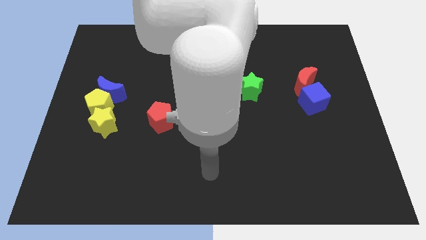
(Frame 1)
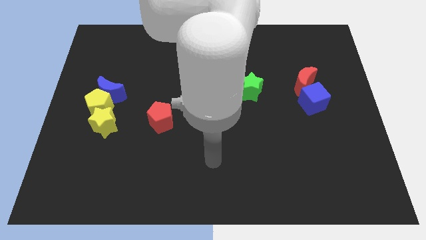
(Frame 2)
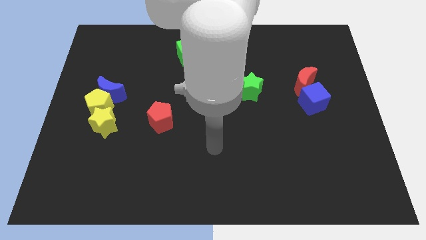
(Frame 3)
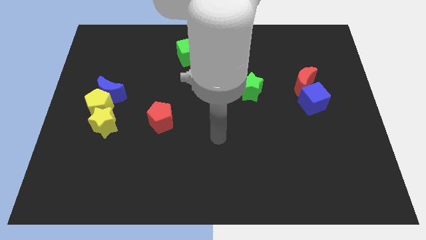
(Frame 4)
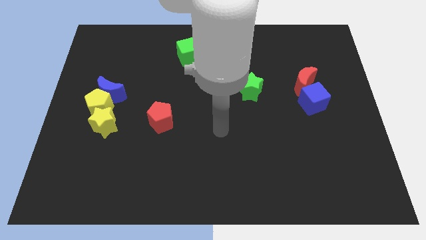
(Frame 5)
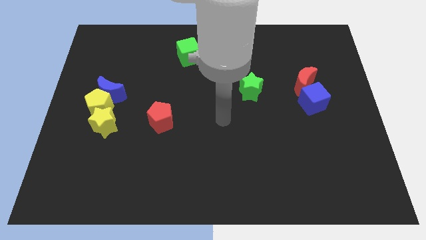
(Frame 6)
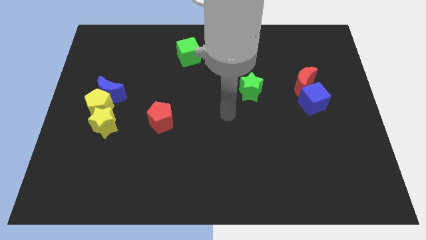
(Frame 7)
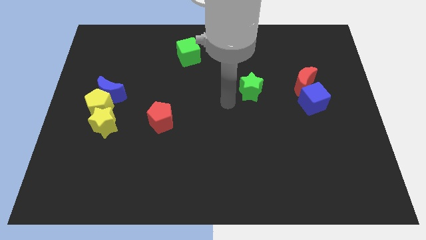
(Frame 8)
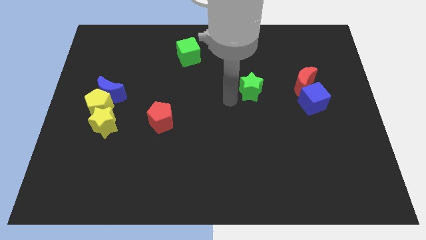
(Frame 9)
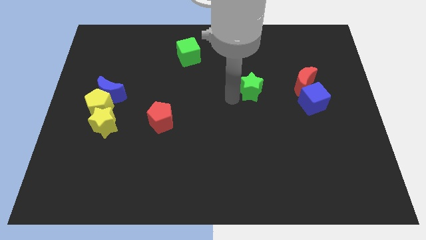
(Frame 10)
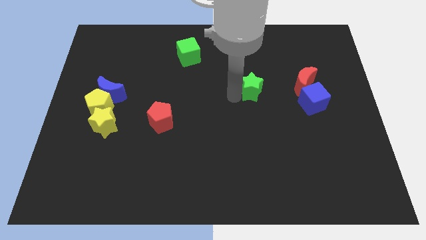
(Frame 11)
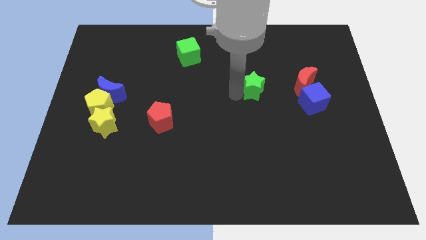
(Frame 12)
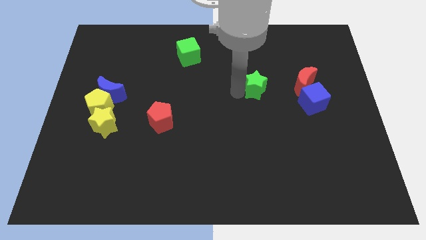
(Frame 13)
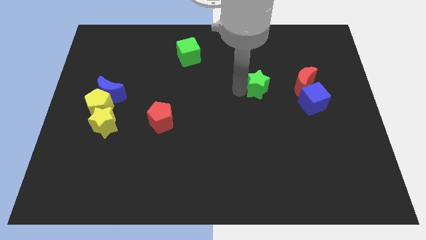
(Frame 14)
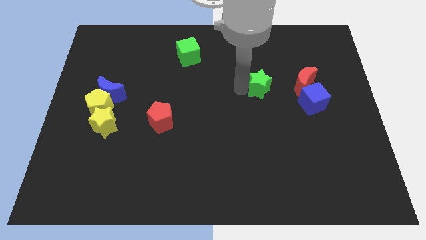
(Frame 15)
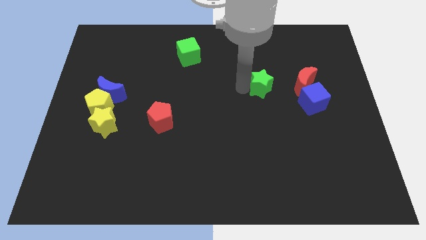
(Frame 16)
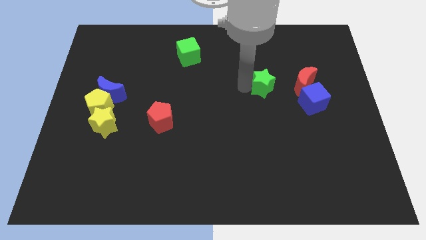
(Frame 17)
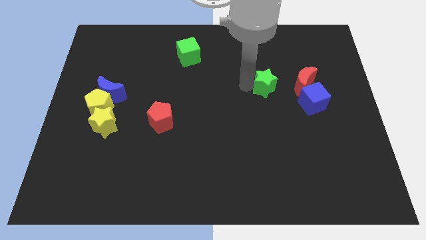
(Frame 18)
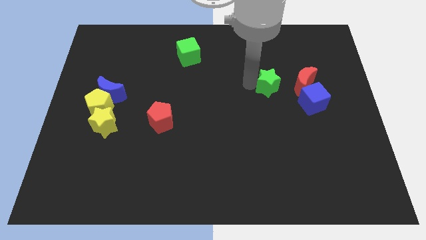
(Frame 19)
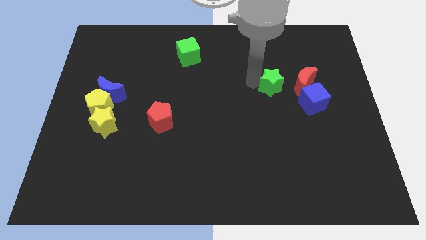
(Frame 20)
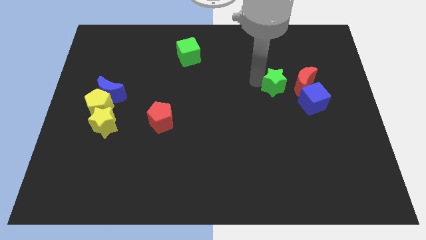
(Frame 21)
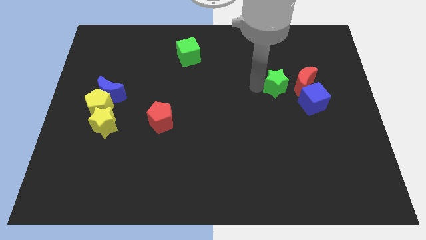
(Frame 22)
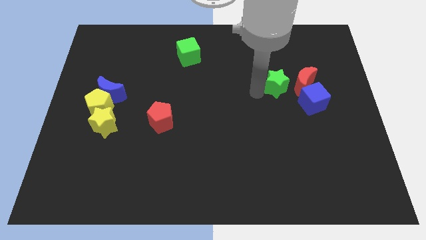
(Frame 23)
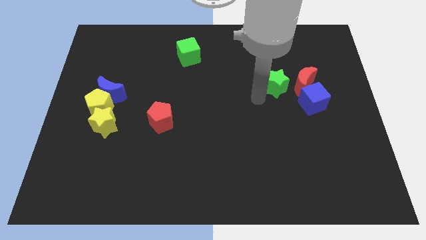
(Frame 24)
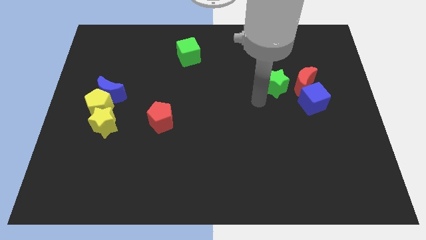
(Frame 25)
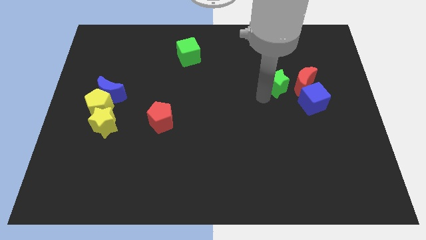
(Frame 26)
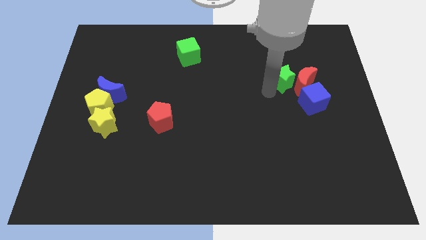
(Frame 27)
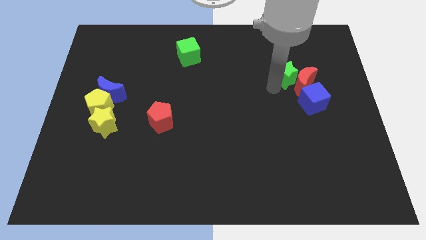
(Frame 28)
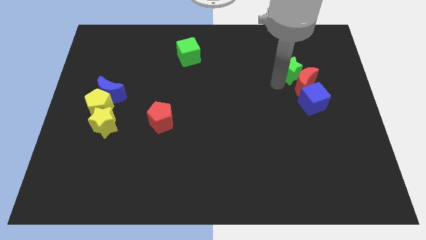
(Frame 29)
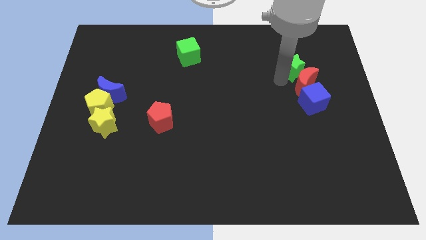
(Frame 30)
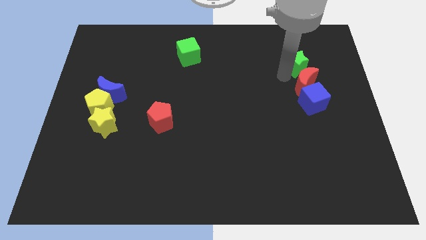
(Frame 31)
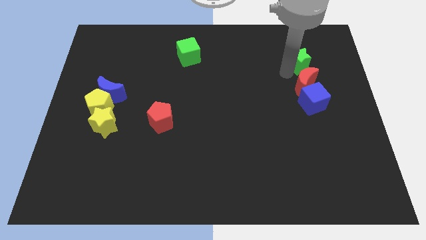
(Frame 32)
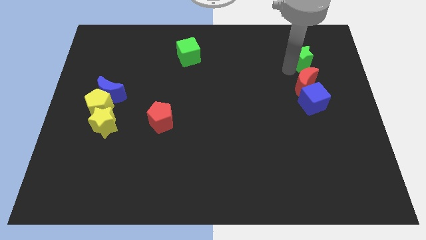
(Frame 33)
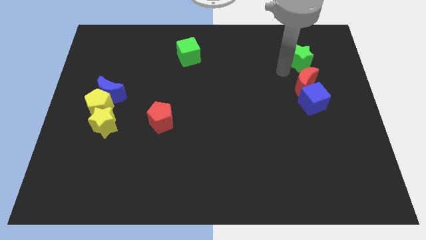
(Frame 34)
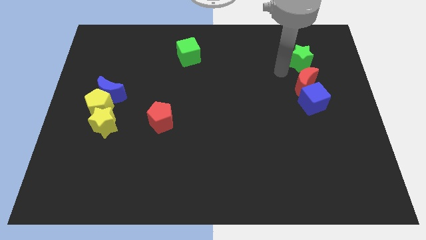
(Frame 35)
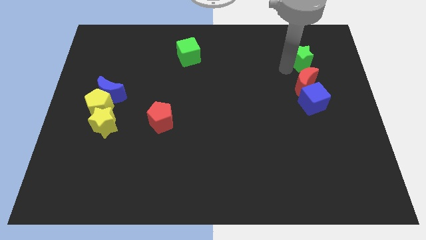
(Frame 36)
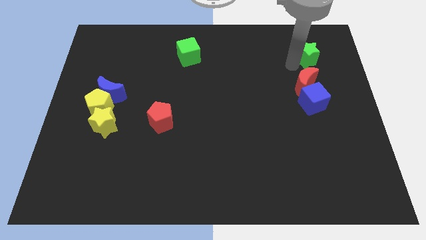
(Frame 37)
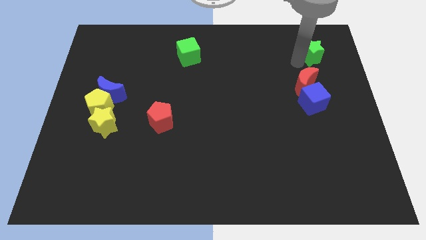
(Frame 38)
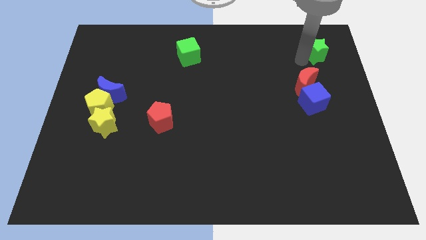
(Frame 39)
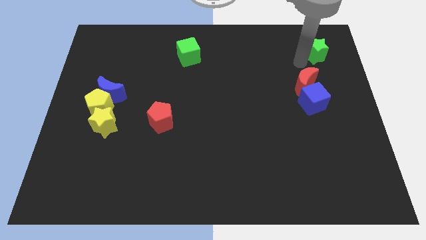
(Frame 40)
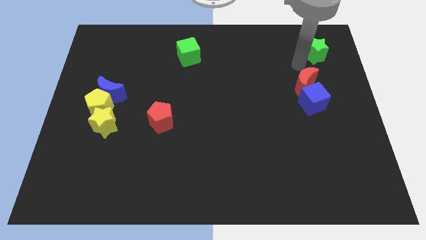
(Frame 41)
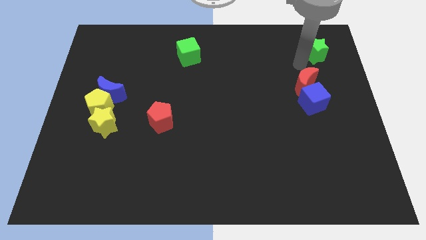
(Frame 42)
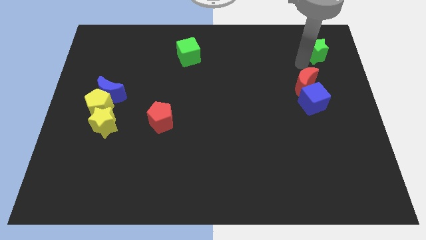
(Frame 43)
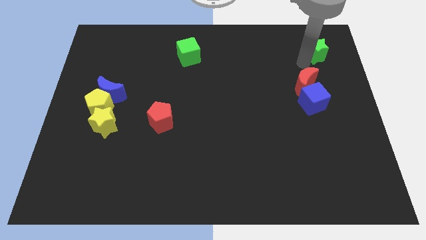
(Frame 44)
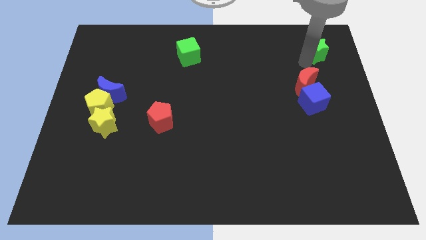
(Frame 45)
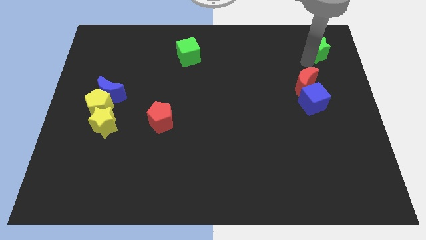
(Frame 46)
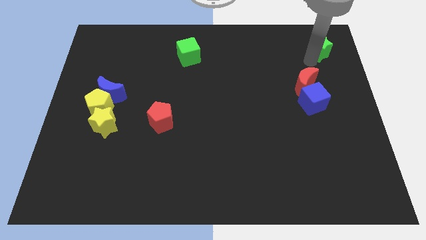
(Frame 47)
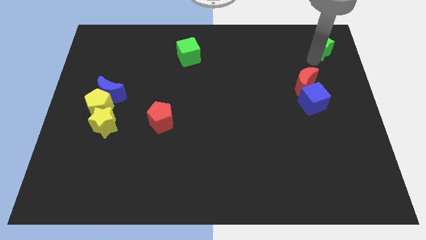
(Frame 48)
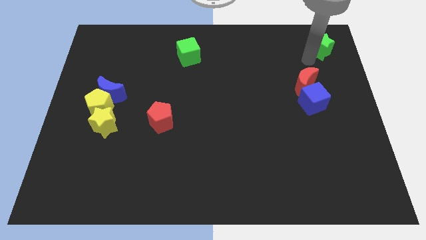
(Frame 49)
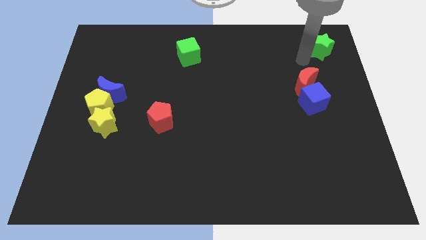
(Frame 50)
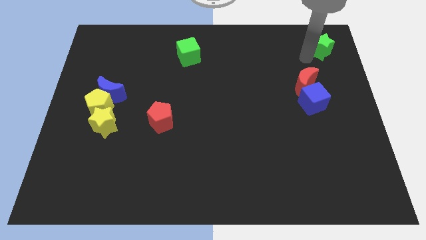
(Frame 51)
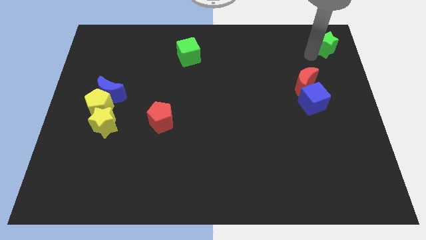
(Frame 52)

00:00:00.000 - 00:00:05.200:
move the green star to the top right corner

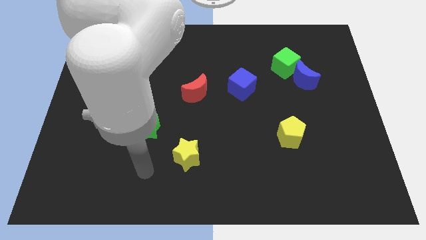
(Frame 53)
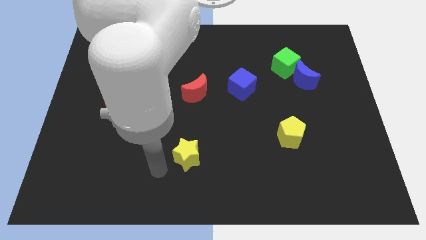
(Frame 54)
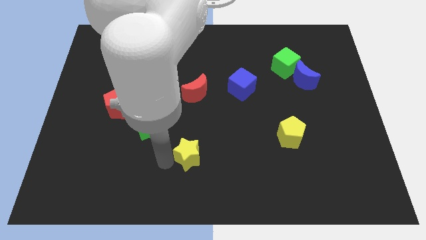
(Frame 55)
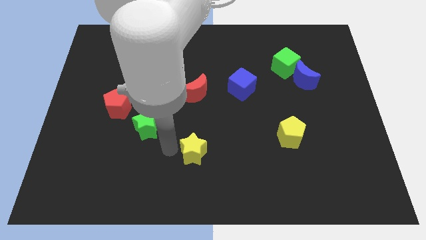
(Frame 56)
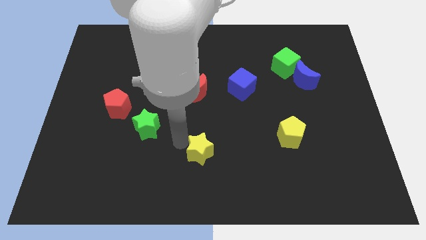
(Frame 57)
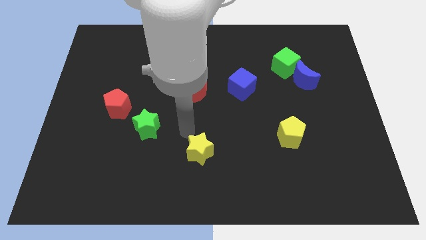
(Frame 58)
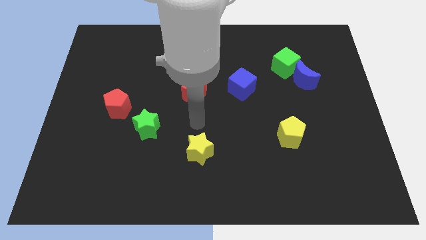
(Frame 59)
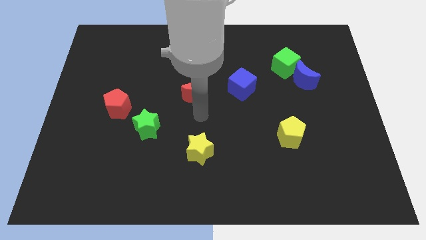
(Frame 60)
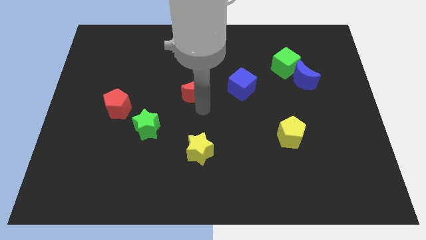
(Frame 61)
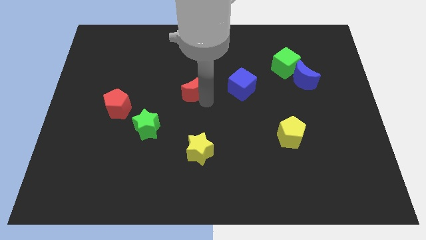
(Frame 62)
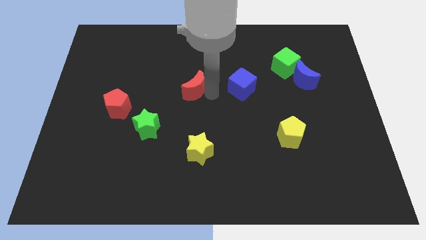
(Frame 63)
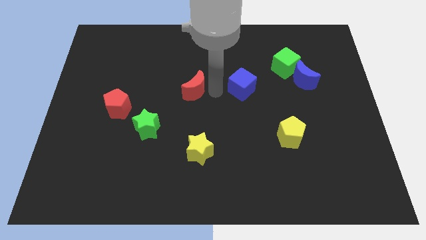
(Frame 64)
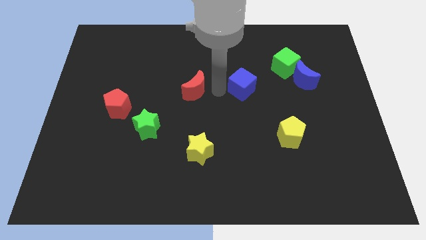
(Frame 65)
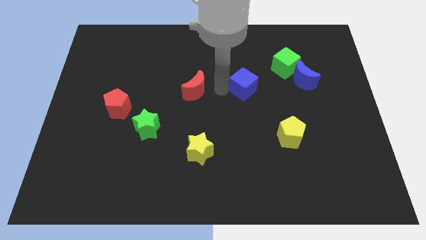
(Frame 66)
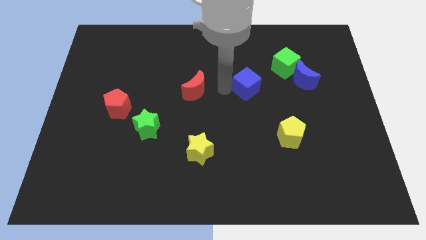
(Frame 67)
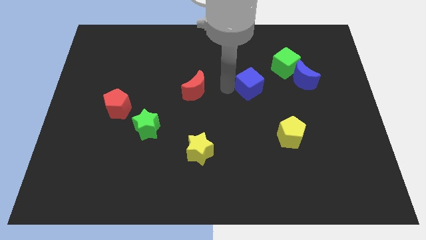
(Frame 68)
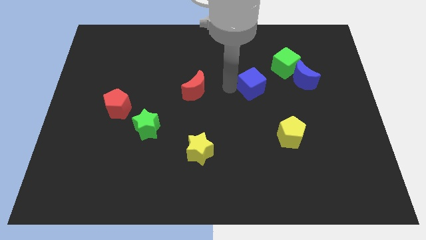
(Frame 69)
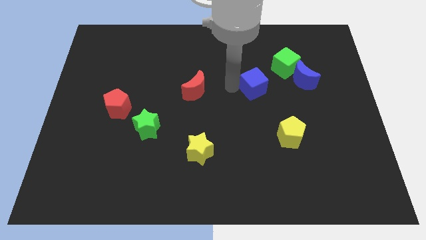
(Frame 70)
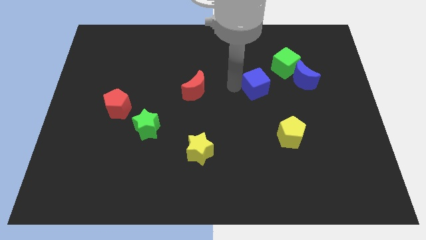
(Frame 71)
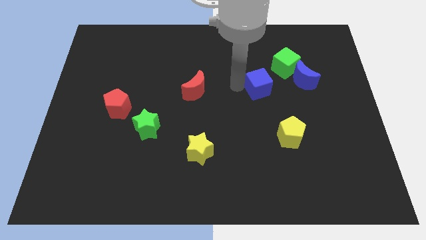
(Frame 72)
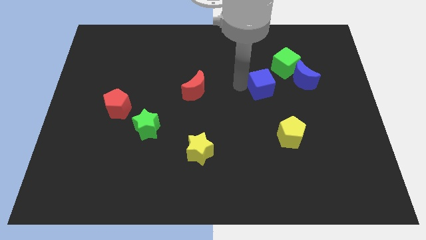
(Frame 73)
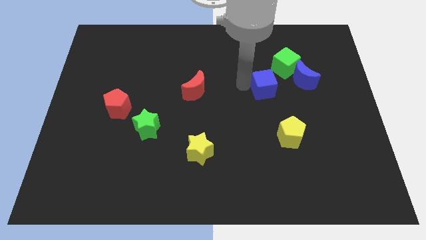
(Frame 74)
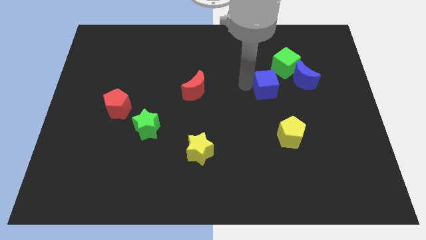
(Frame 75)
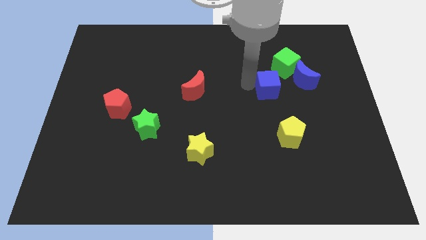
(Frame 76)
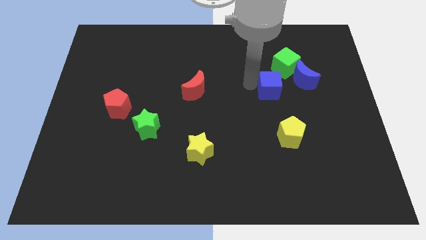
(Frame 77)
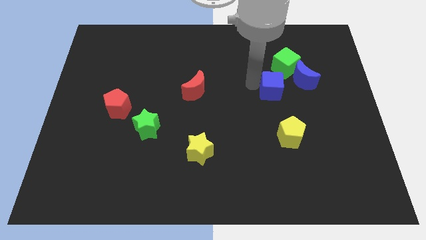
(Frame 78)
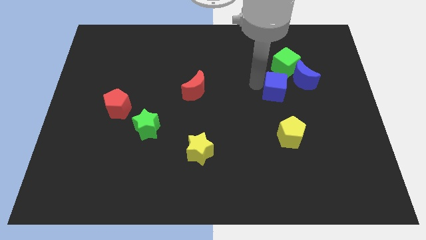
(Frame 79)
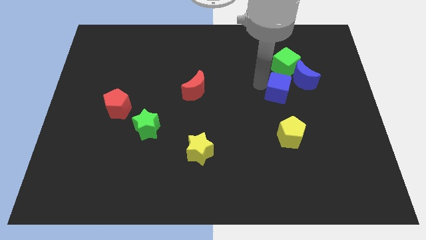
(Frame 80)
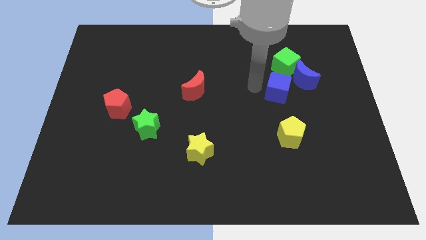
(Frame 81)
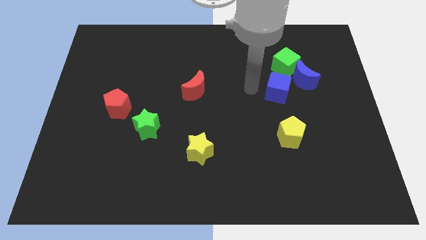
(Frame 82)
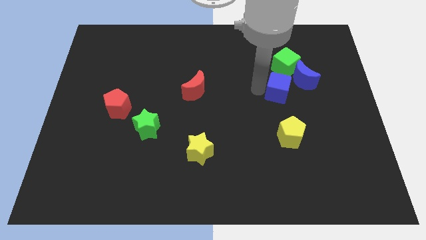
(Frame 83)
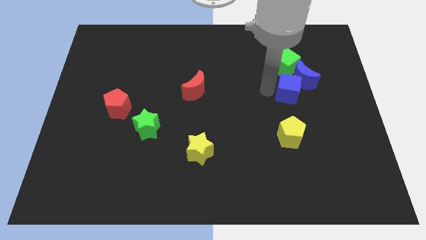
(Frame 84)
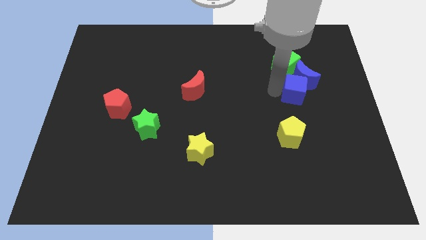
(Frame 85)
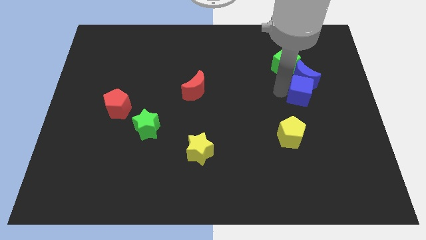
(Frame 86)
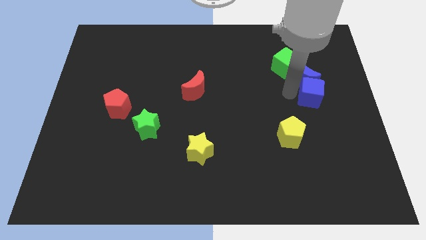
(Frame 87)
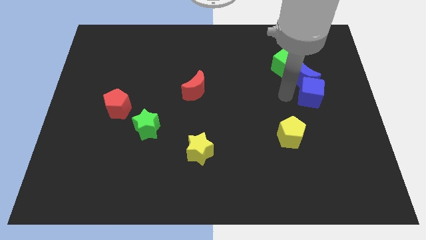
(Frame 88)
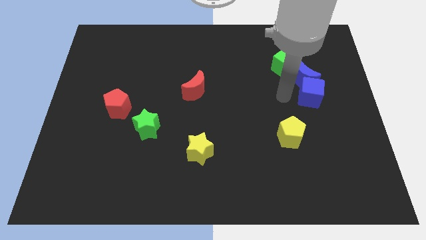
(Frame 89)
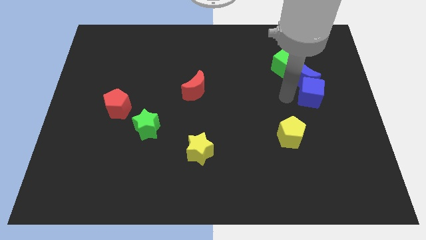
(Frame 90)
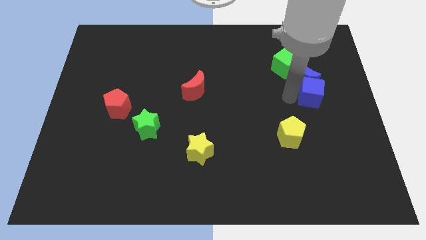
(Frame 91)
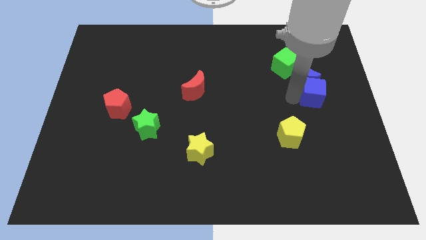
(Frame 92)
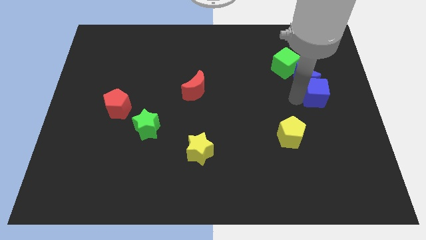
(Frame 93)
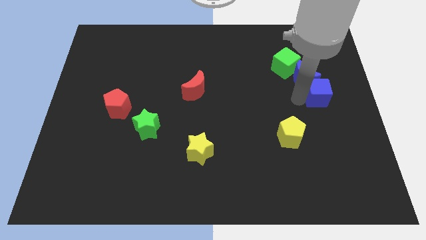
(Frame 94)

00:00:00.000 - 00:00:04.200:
move the blue cube to the right side
